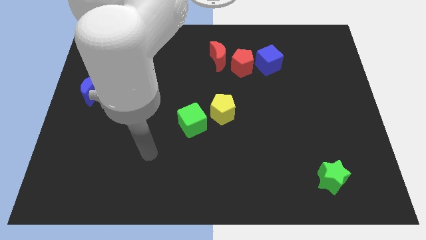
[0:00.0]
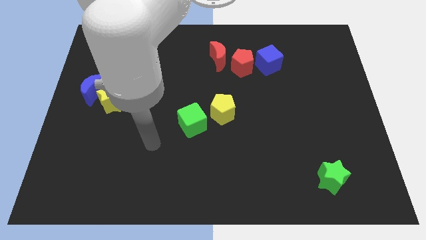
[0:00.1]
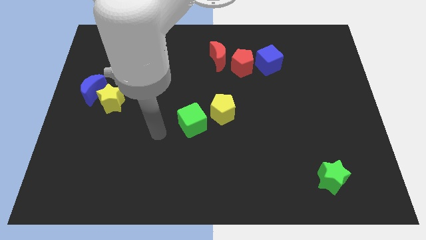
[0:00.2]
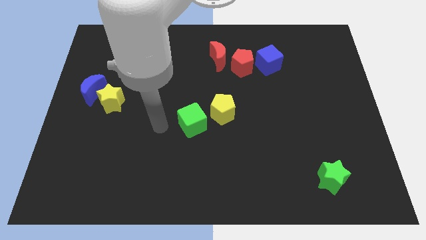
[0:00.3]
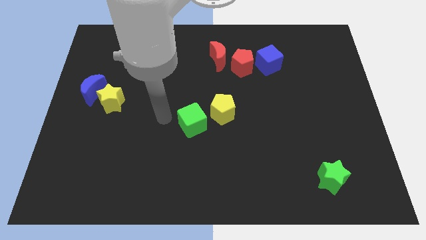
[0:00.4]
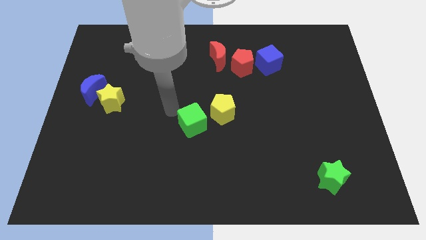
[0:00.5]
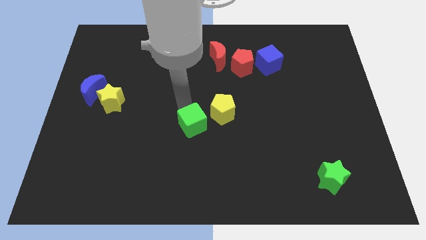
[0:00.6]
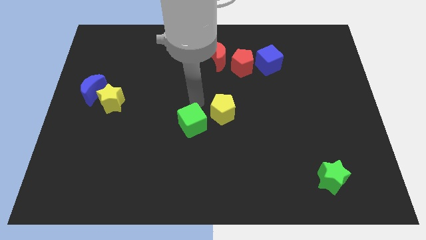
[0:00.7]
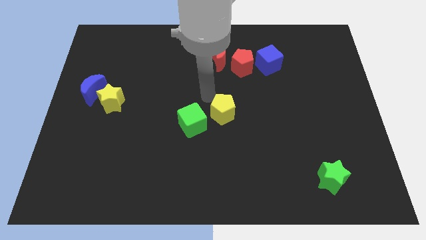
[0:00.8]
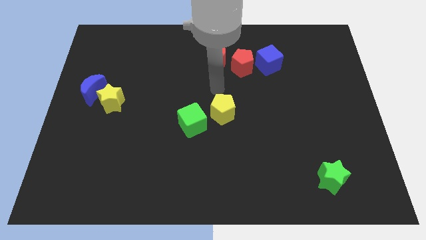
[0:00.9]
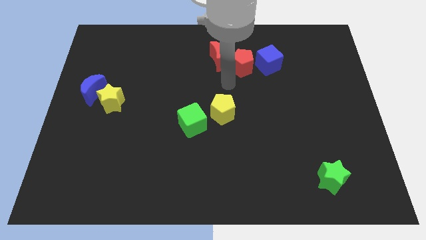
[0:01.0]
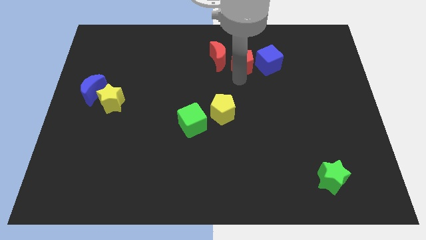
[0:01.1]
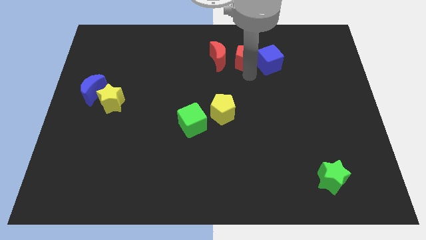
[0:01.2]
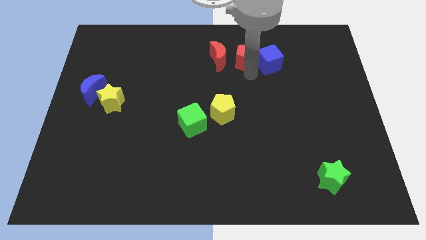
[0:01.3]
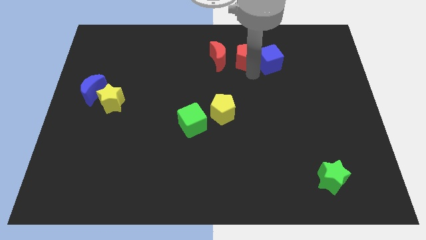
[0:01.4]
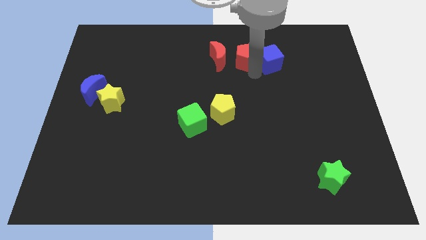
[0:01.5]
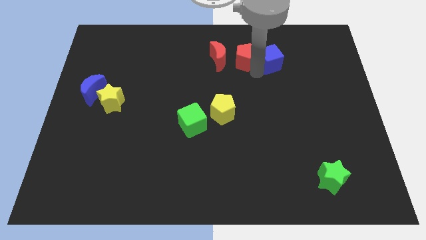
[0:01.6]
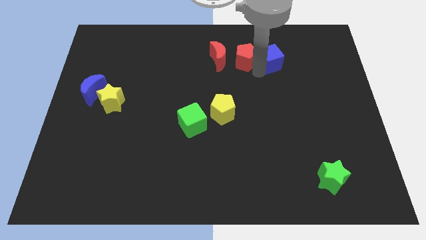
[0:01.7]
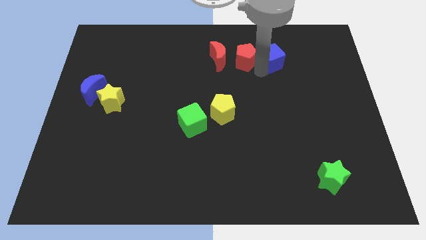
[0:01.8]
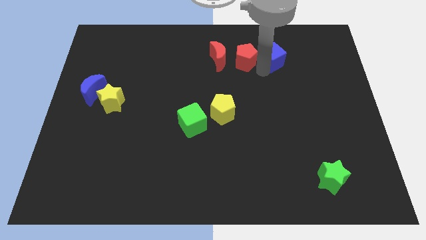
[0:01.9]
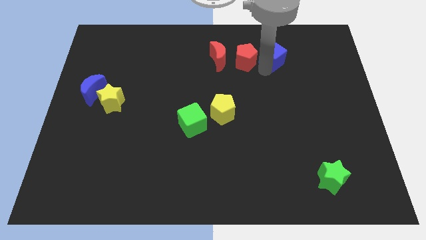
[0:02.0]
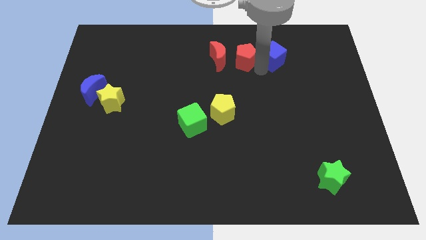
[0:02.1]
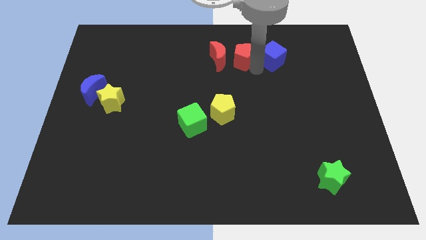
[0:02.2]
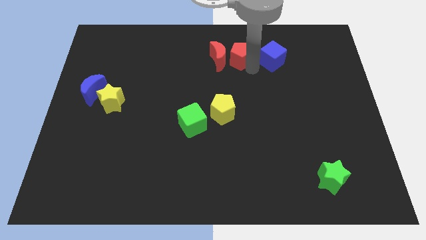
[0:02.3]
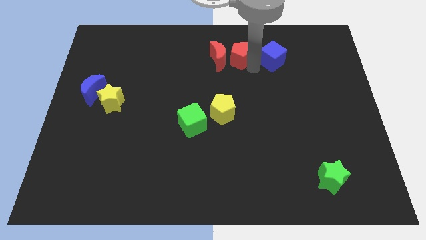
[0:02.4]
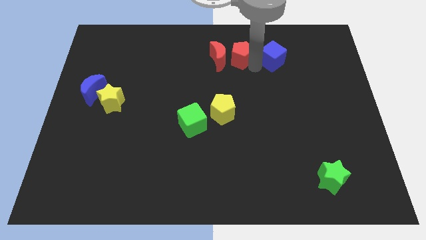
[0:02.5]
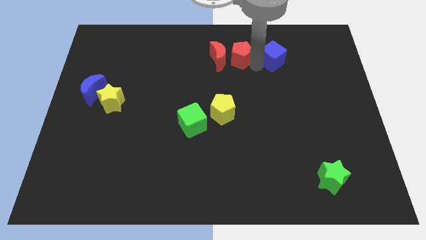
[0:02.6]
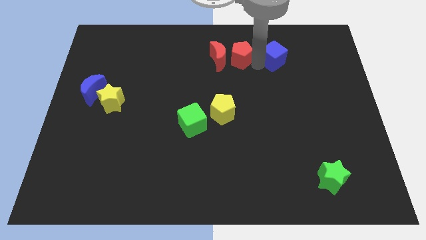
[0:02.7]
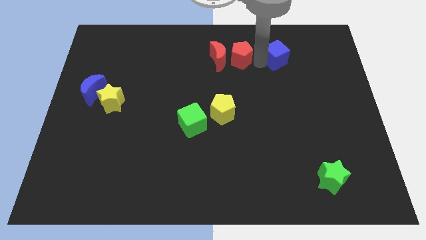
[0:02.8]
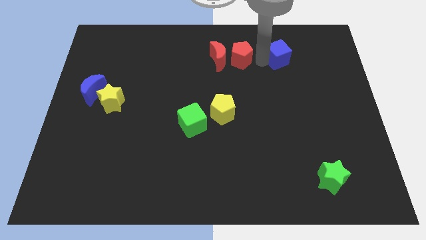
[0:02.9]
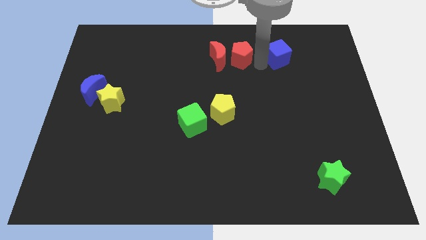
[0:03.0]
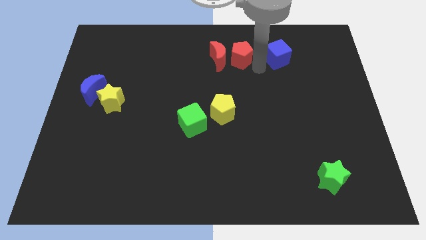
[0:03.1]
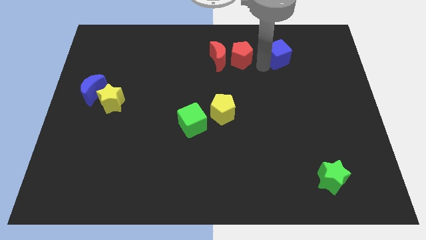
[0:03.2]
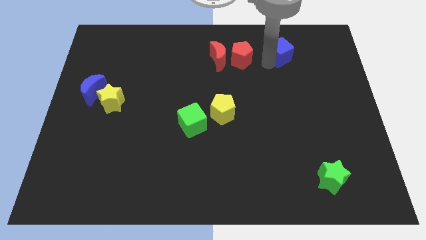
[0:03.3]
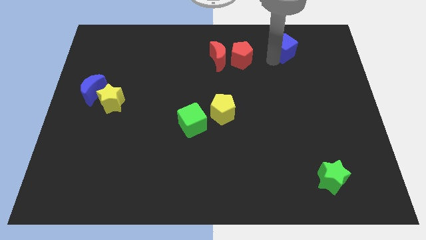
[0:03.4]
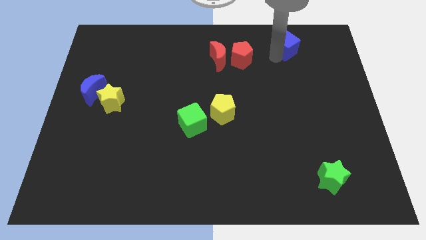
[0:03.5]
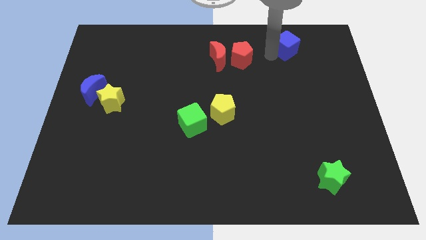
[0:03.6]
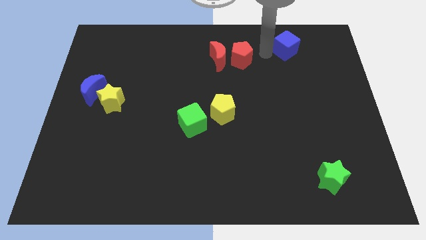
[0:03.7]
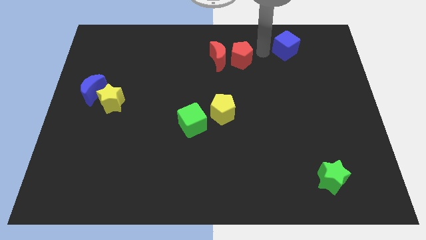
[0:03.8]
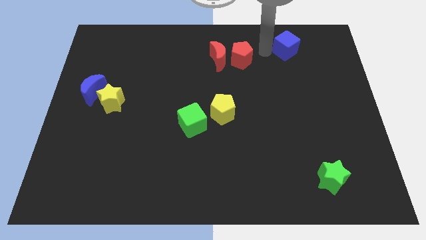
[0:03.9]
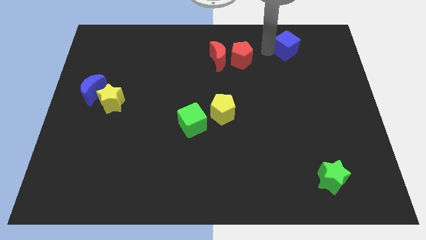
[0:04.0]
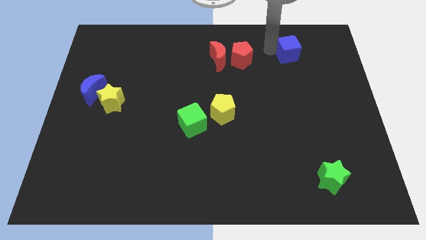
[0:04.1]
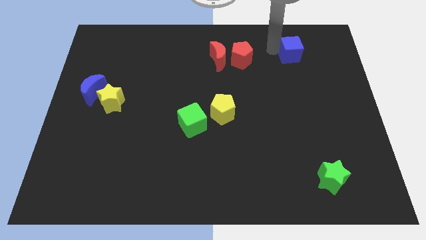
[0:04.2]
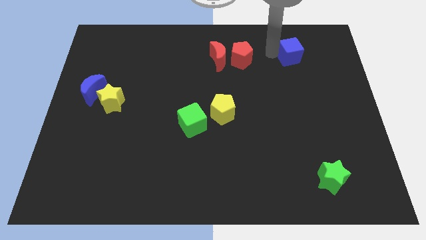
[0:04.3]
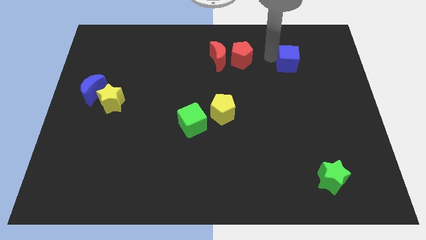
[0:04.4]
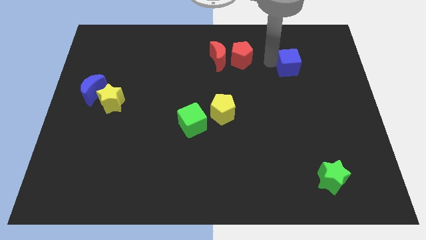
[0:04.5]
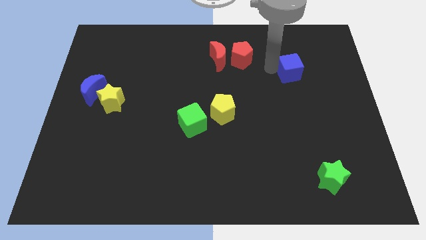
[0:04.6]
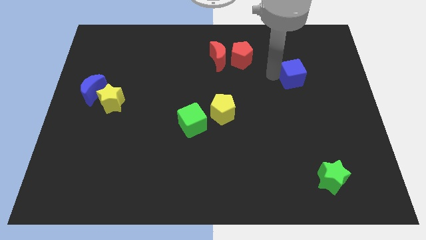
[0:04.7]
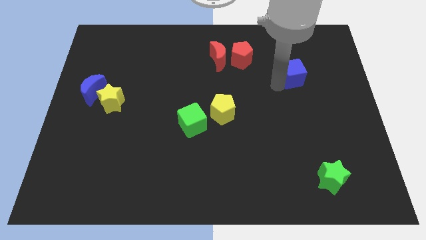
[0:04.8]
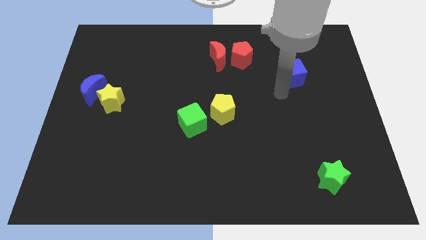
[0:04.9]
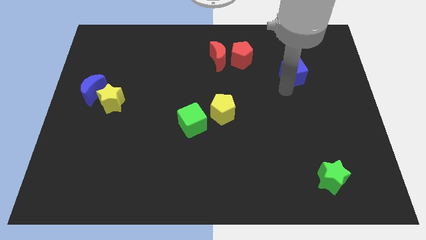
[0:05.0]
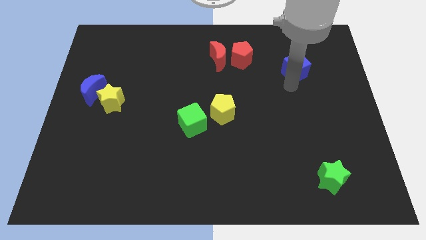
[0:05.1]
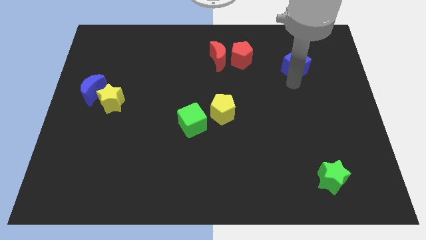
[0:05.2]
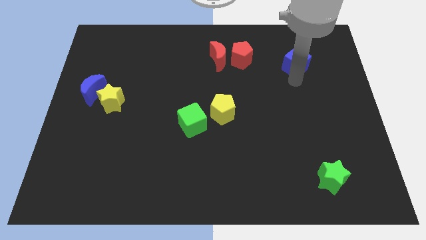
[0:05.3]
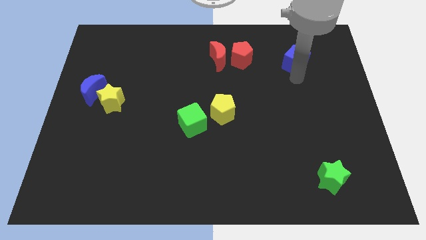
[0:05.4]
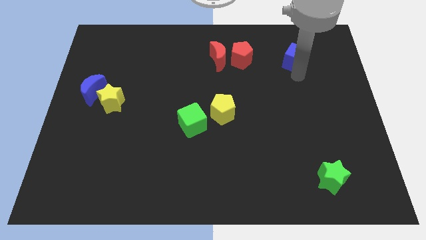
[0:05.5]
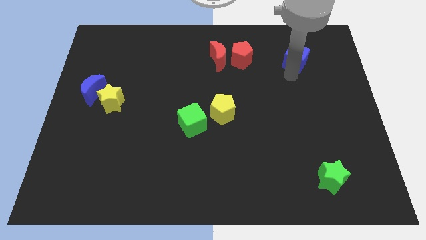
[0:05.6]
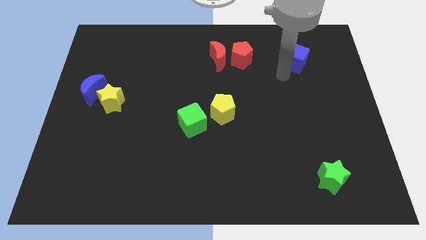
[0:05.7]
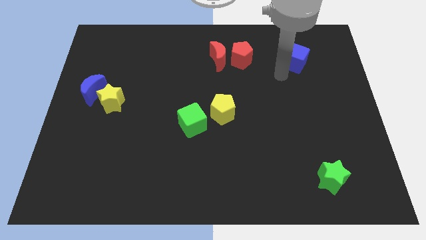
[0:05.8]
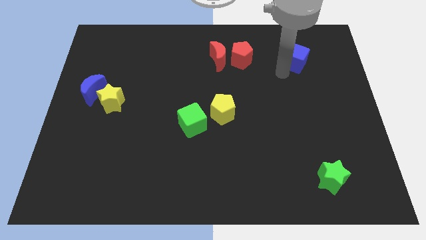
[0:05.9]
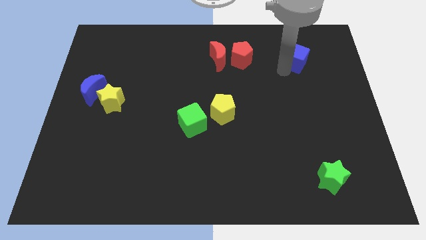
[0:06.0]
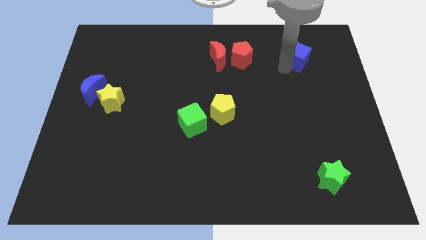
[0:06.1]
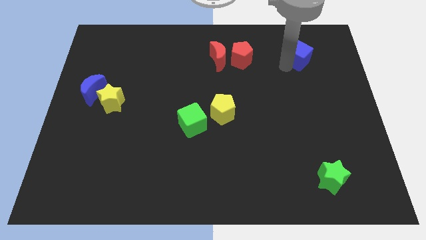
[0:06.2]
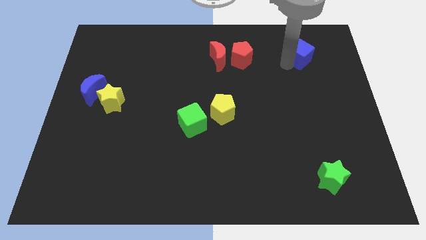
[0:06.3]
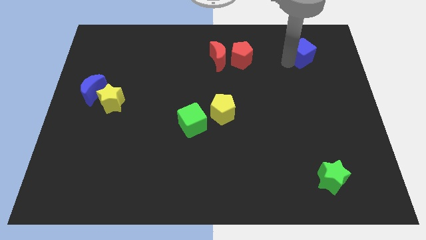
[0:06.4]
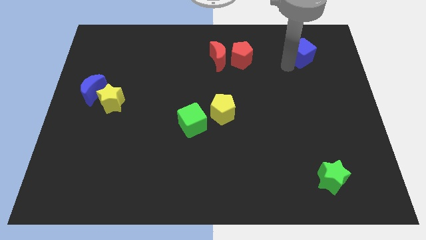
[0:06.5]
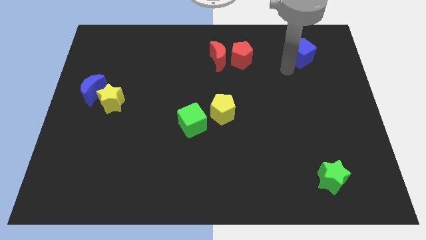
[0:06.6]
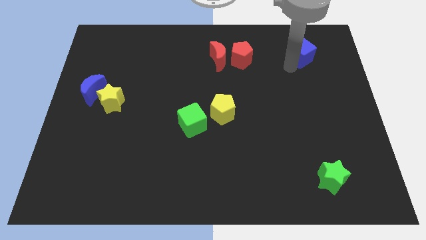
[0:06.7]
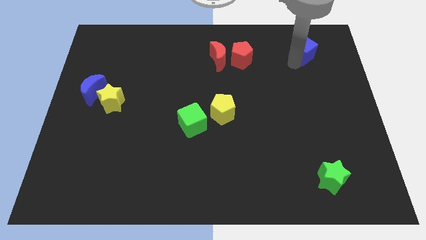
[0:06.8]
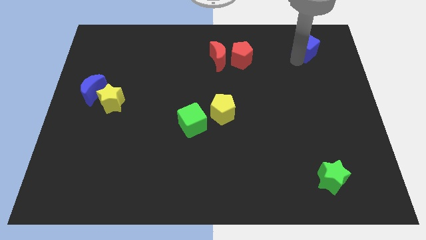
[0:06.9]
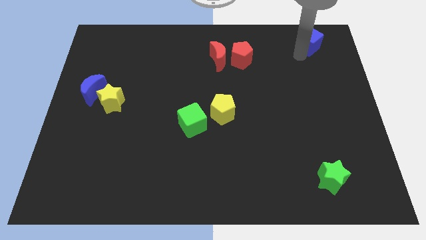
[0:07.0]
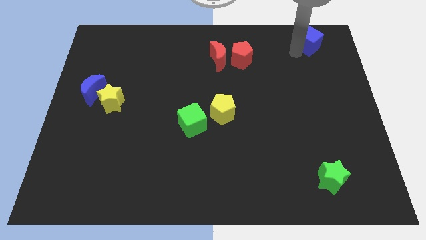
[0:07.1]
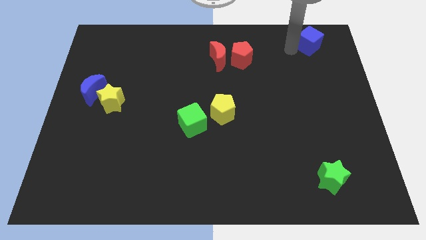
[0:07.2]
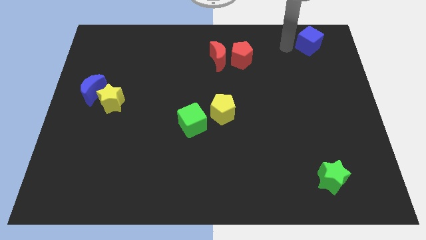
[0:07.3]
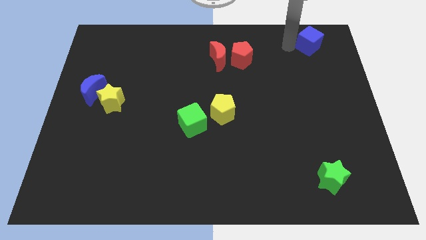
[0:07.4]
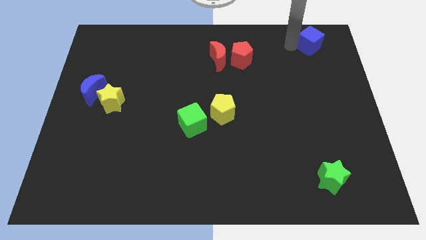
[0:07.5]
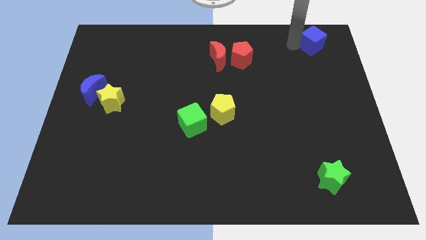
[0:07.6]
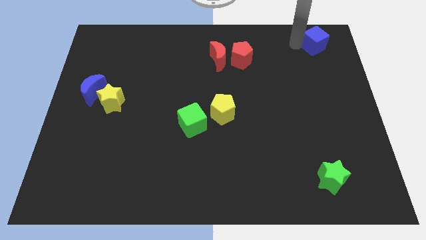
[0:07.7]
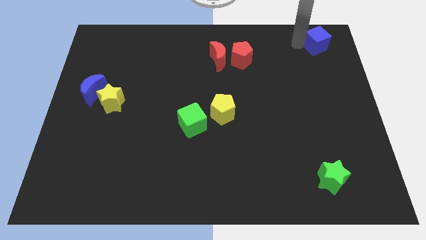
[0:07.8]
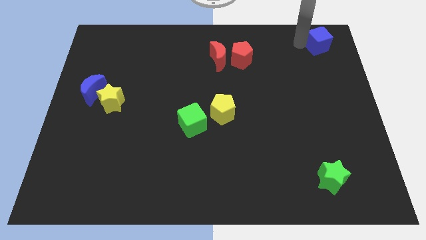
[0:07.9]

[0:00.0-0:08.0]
slide the blue cube to the upper right corner
